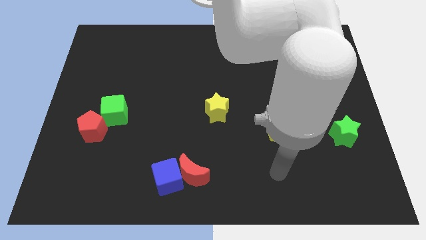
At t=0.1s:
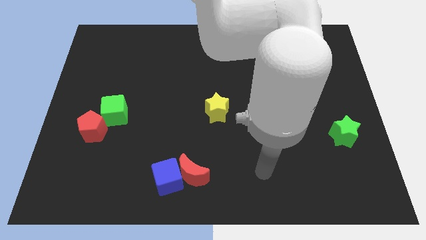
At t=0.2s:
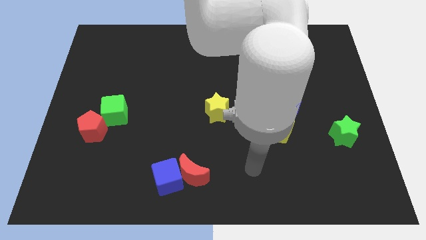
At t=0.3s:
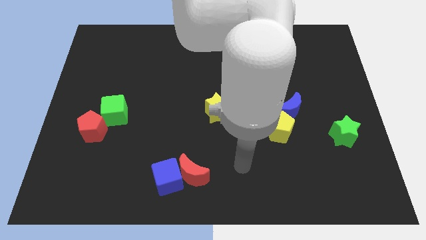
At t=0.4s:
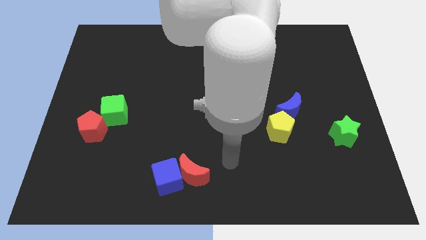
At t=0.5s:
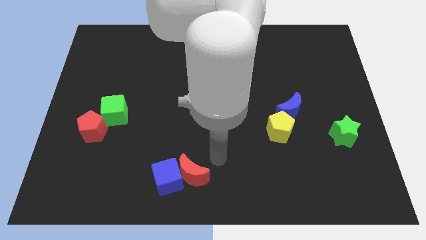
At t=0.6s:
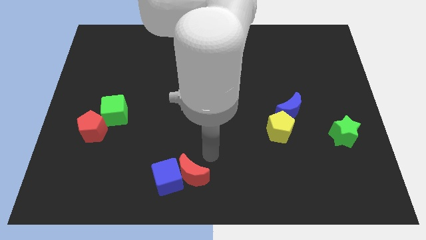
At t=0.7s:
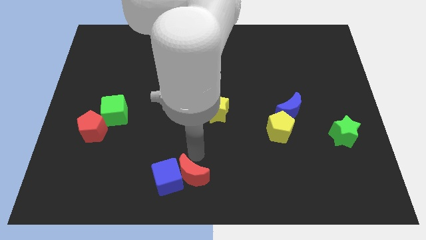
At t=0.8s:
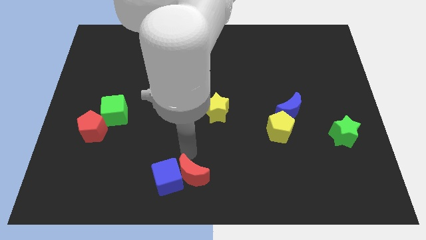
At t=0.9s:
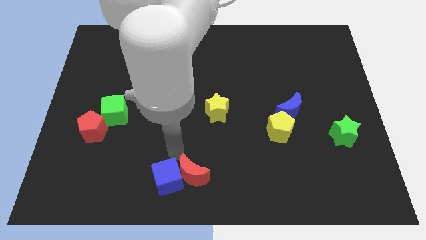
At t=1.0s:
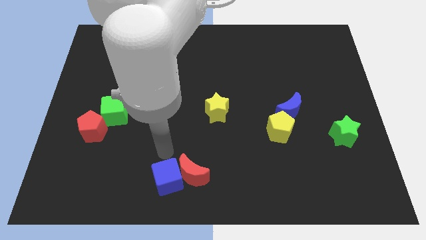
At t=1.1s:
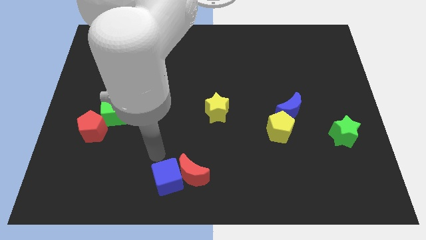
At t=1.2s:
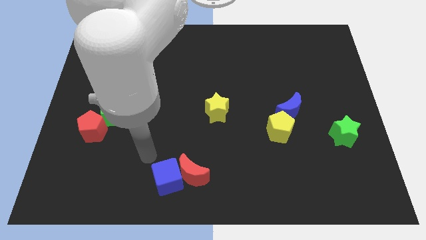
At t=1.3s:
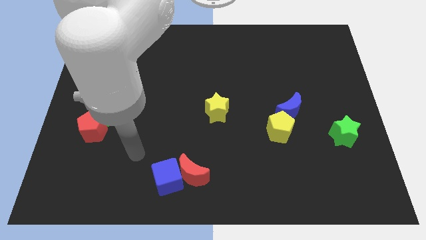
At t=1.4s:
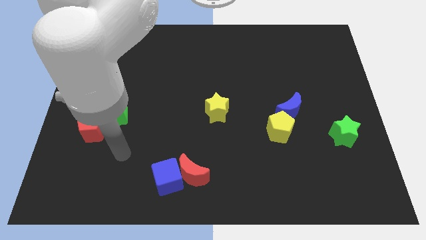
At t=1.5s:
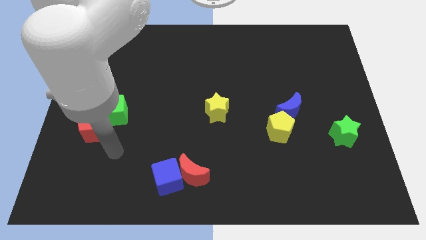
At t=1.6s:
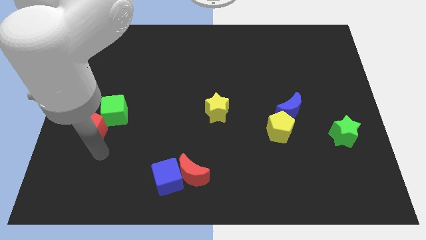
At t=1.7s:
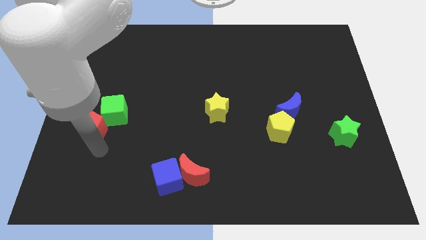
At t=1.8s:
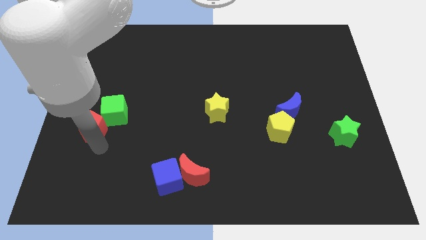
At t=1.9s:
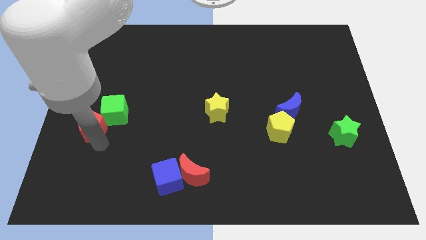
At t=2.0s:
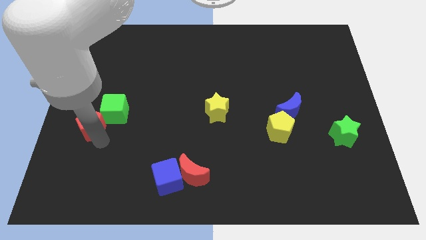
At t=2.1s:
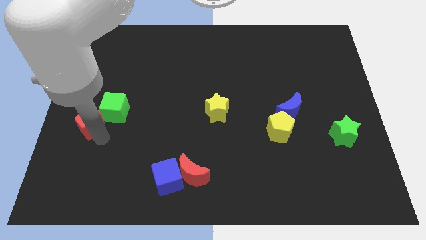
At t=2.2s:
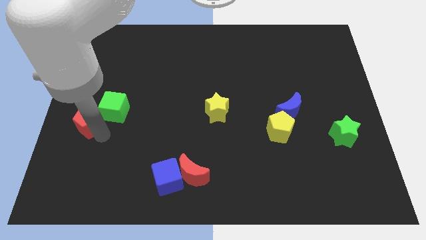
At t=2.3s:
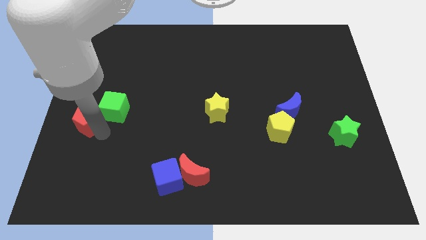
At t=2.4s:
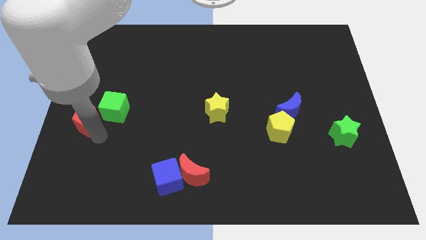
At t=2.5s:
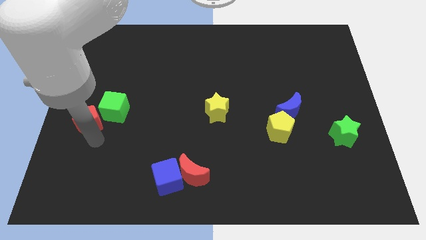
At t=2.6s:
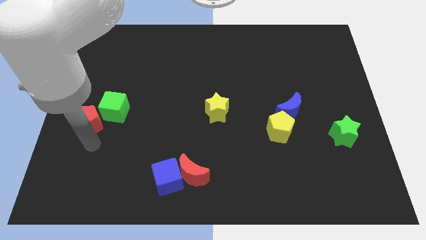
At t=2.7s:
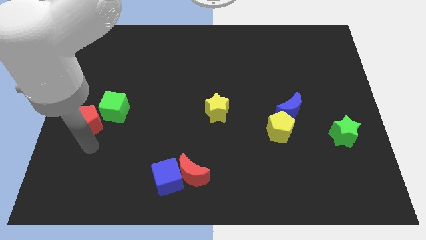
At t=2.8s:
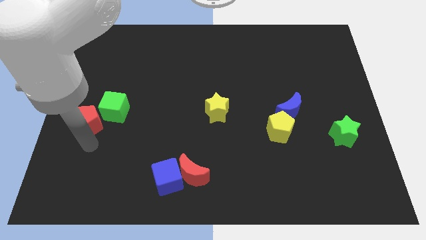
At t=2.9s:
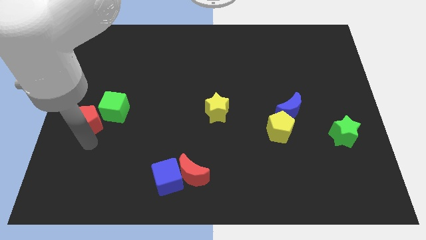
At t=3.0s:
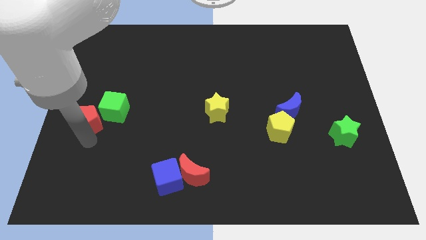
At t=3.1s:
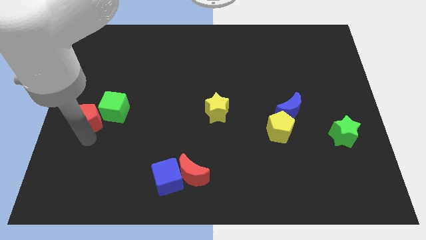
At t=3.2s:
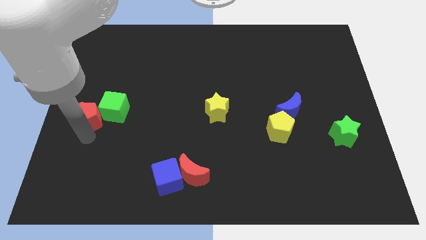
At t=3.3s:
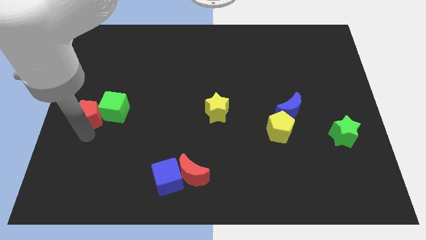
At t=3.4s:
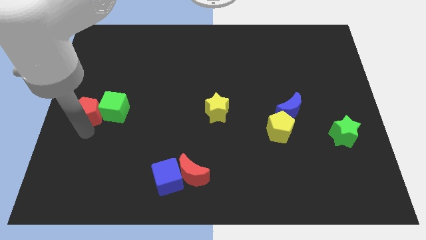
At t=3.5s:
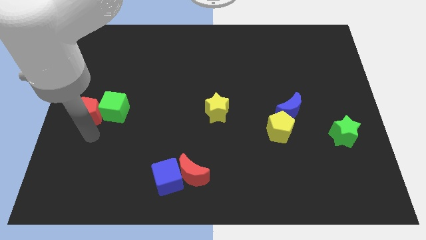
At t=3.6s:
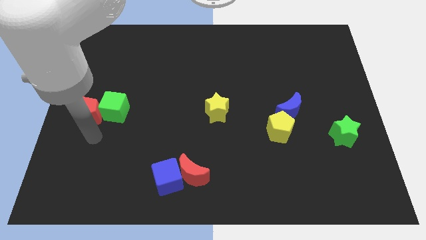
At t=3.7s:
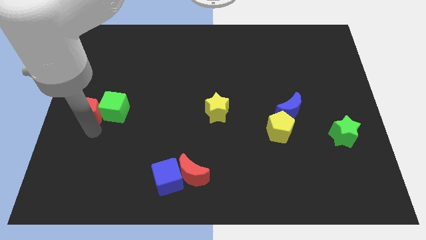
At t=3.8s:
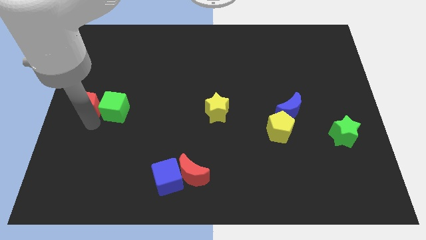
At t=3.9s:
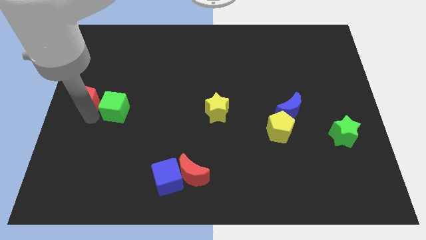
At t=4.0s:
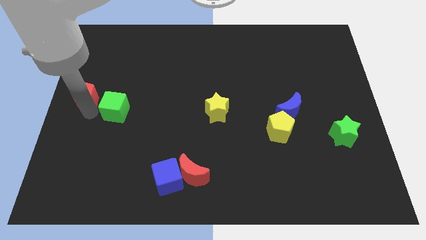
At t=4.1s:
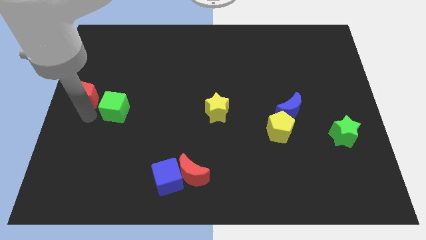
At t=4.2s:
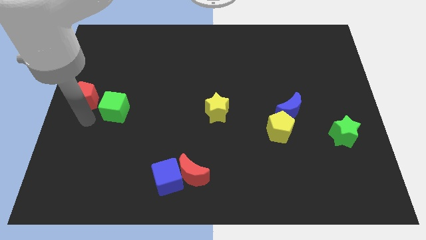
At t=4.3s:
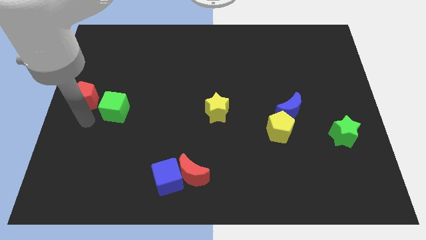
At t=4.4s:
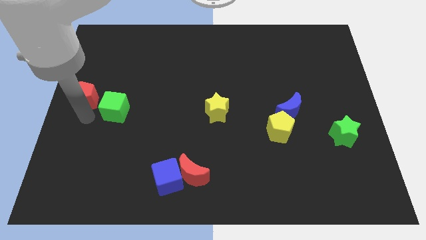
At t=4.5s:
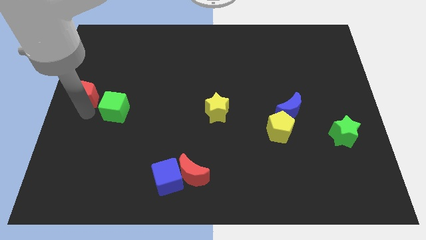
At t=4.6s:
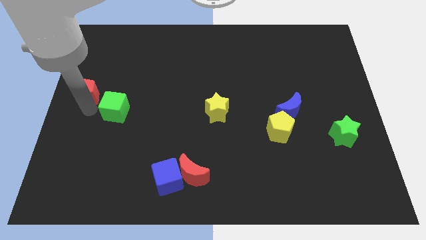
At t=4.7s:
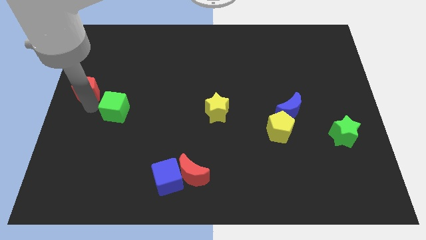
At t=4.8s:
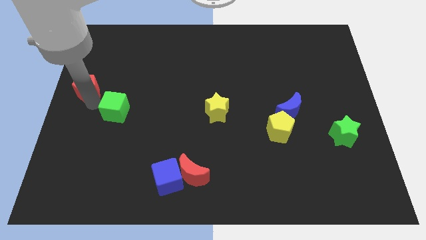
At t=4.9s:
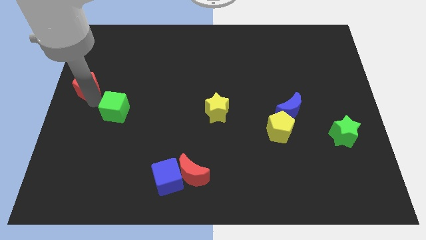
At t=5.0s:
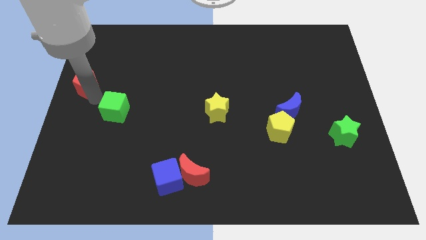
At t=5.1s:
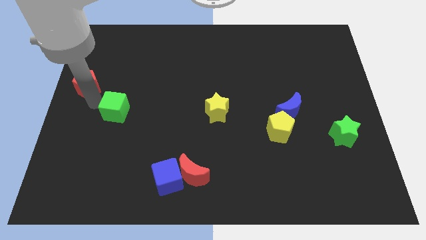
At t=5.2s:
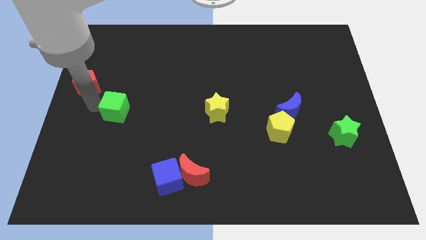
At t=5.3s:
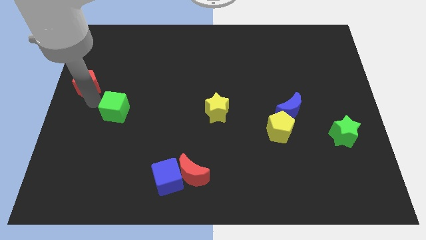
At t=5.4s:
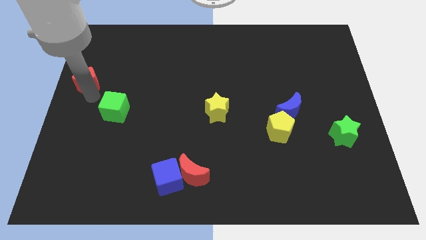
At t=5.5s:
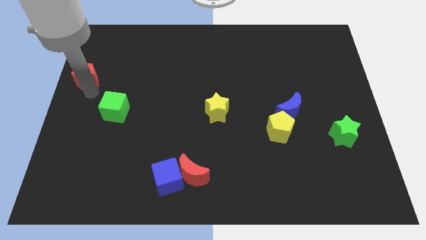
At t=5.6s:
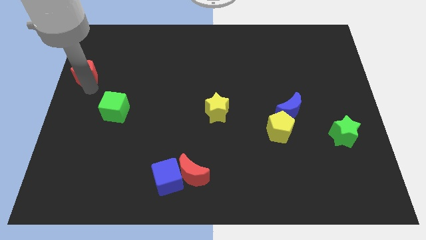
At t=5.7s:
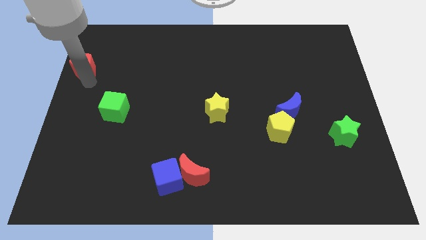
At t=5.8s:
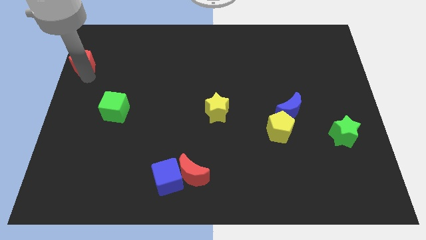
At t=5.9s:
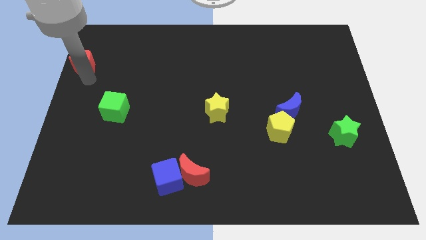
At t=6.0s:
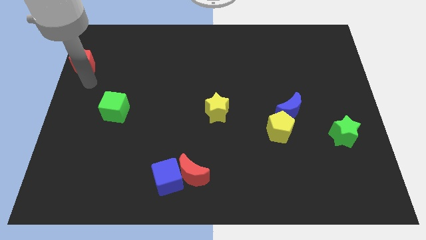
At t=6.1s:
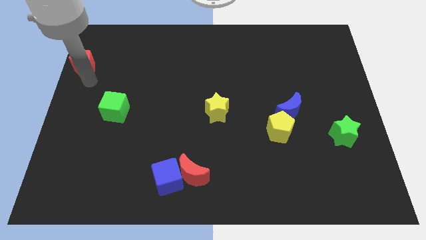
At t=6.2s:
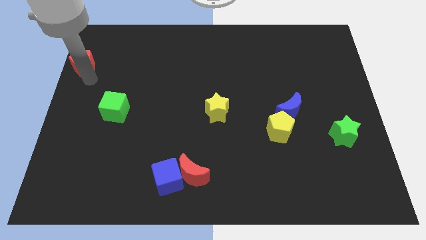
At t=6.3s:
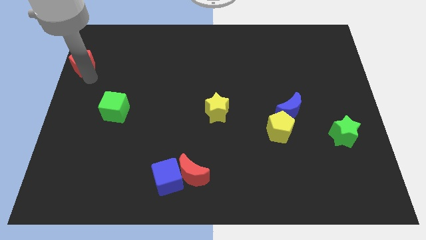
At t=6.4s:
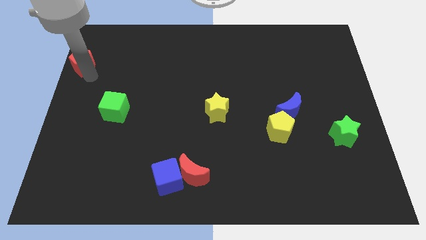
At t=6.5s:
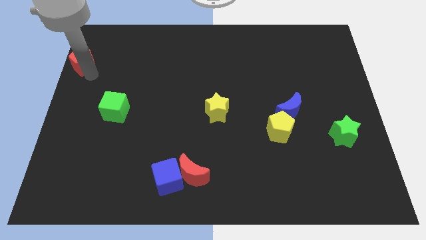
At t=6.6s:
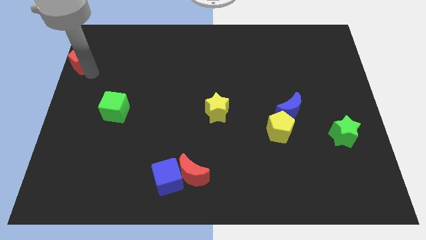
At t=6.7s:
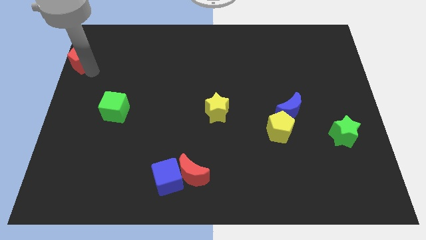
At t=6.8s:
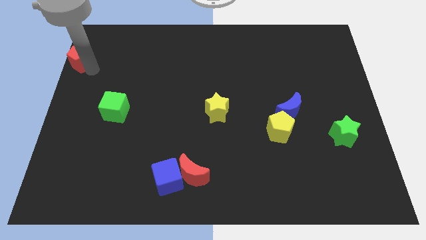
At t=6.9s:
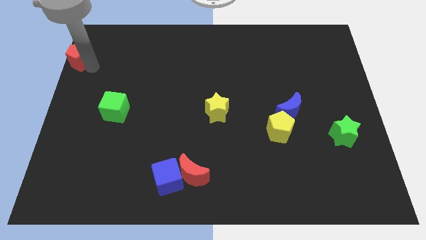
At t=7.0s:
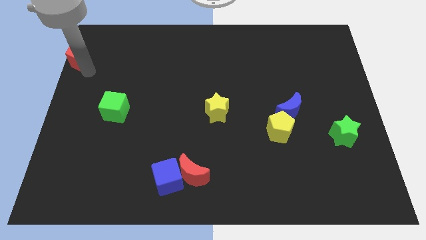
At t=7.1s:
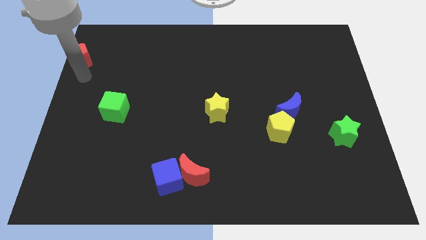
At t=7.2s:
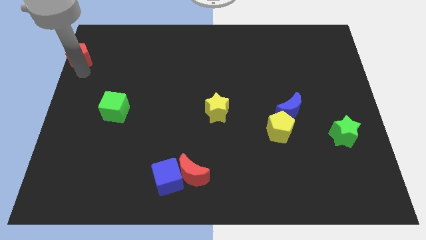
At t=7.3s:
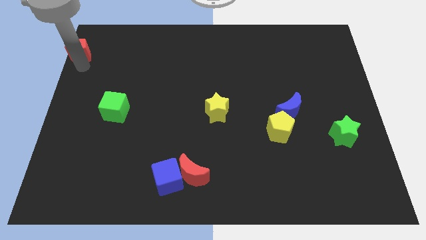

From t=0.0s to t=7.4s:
push the red pentagon to the top left of the board
